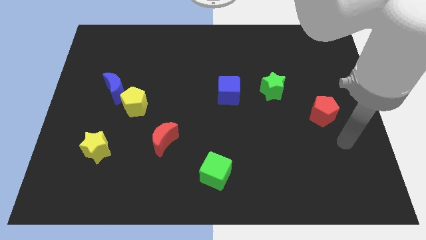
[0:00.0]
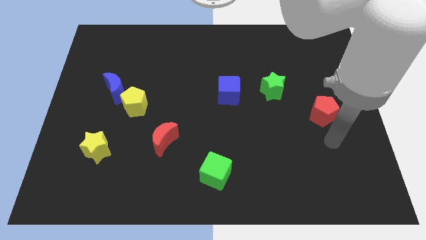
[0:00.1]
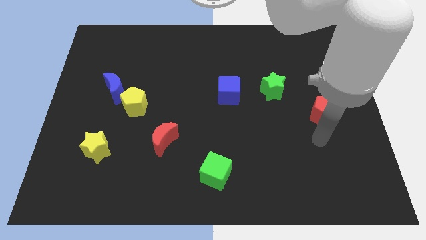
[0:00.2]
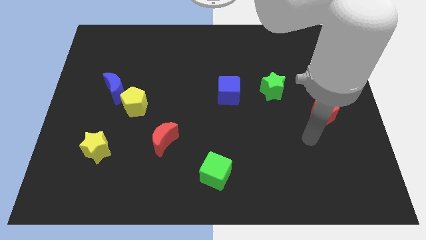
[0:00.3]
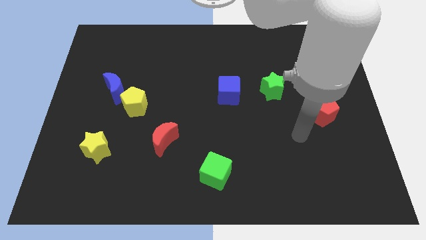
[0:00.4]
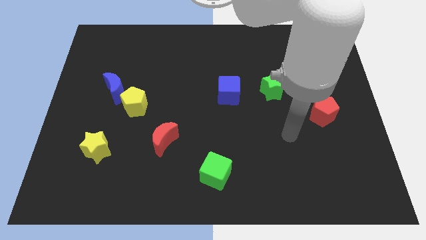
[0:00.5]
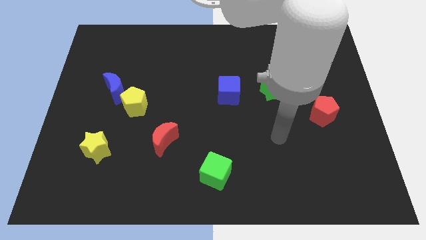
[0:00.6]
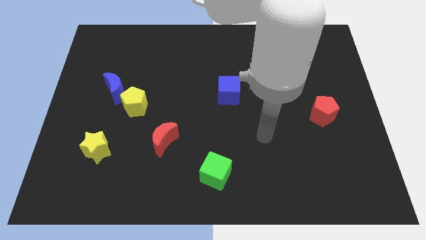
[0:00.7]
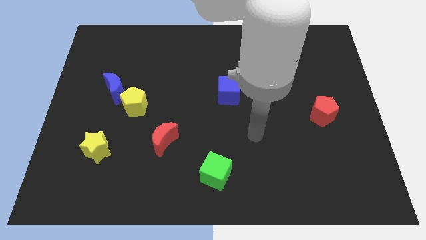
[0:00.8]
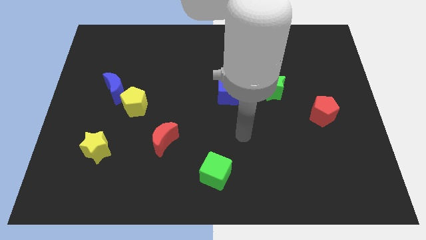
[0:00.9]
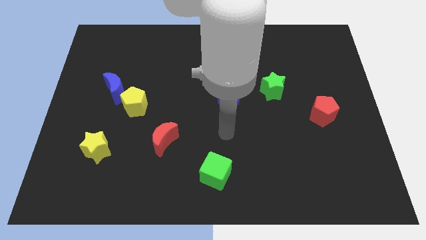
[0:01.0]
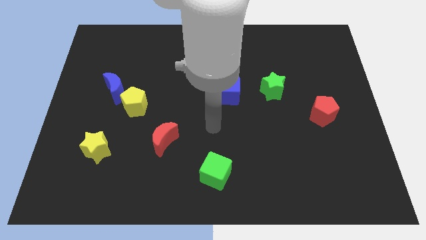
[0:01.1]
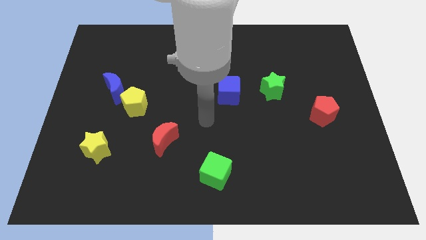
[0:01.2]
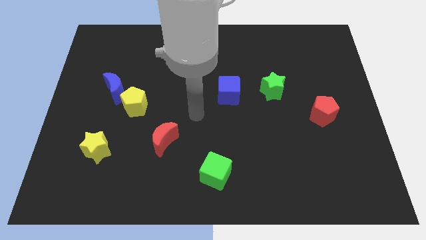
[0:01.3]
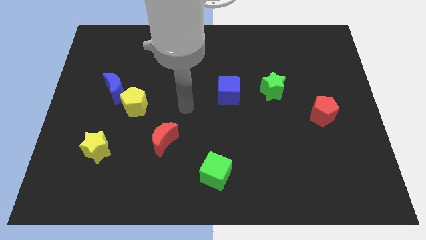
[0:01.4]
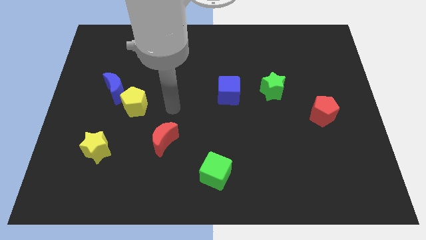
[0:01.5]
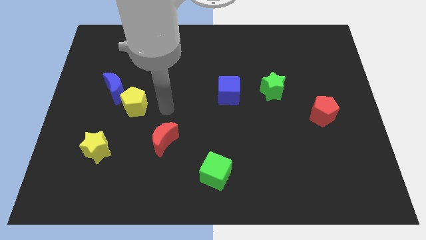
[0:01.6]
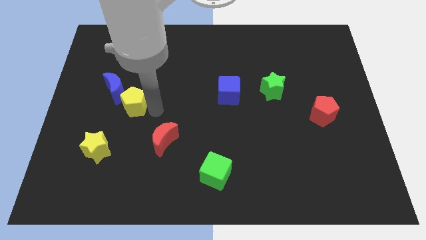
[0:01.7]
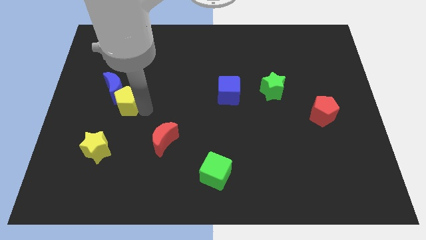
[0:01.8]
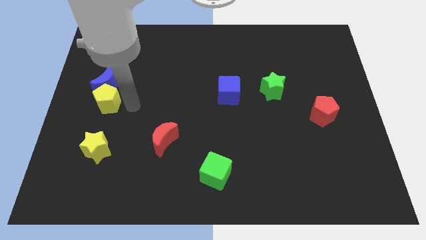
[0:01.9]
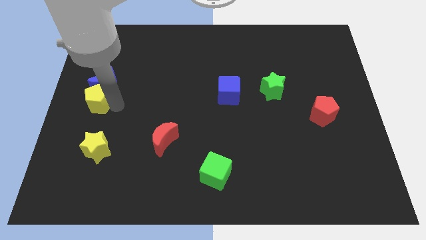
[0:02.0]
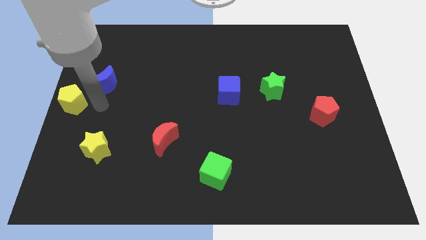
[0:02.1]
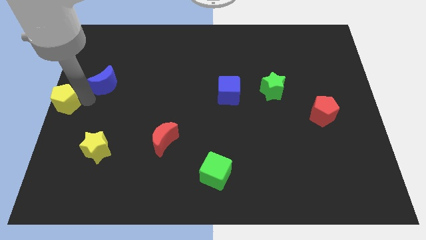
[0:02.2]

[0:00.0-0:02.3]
pull the blue moon apart from the yellow pentagon

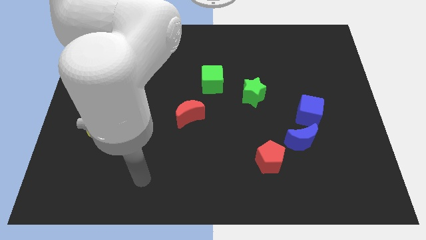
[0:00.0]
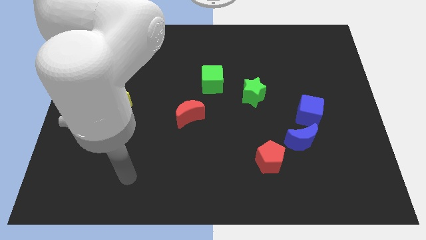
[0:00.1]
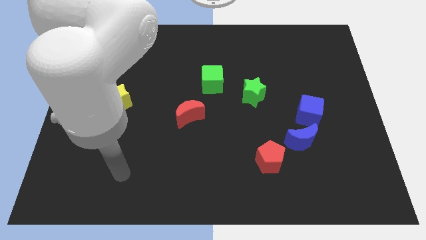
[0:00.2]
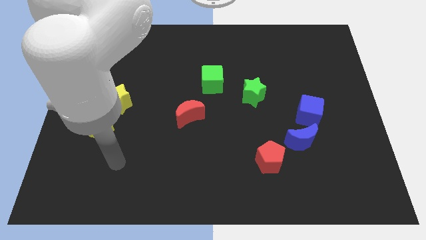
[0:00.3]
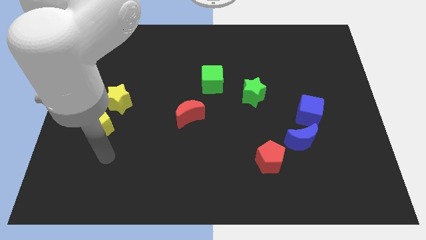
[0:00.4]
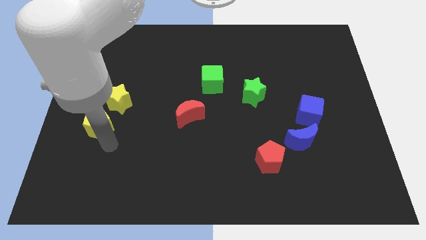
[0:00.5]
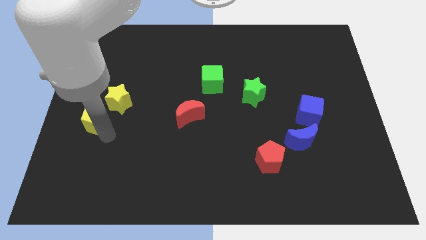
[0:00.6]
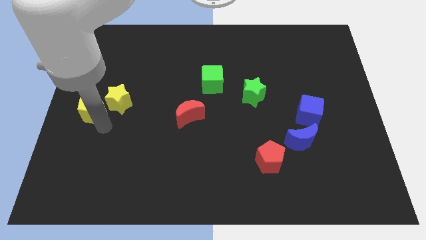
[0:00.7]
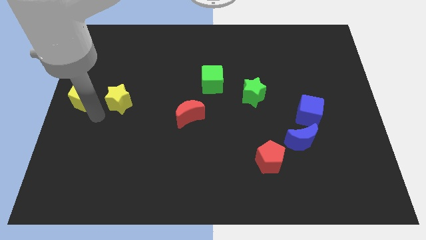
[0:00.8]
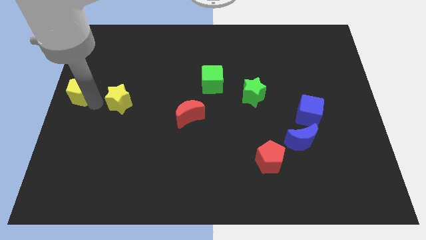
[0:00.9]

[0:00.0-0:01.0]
move the yellow star away from the yellow pentagon

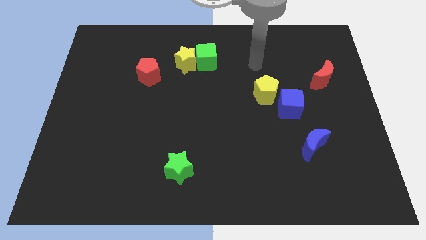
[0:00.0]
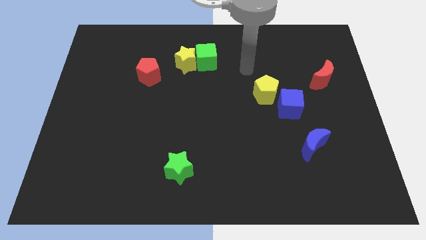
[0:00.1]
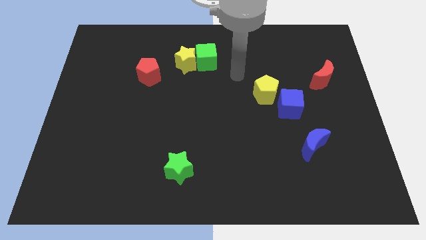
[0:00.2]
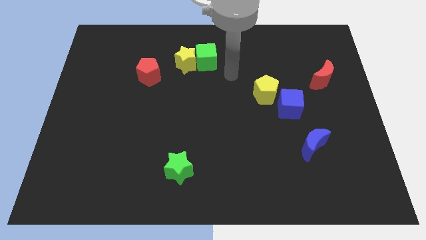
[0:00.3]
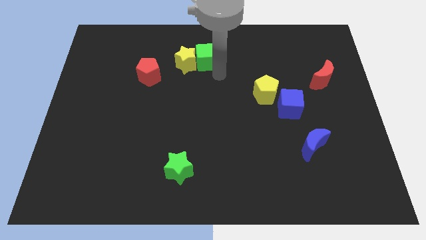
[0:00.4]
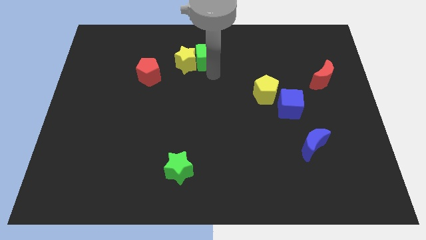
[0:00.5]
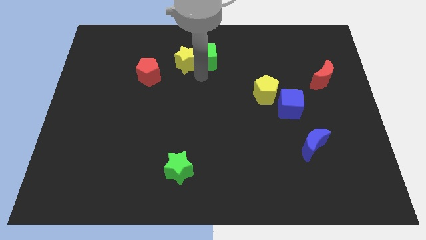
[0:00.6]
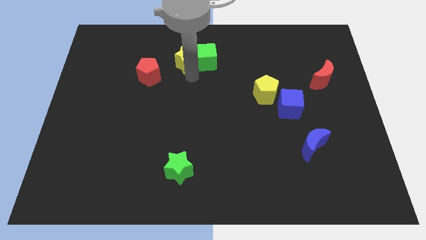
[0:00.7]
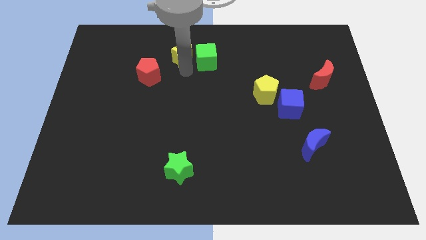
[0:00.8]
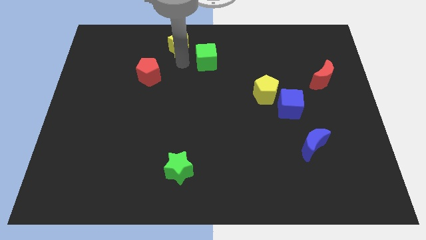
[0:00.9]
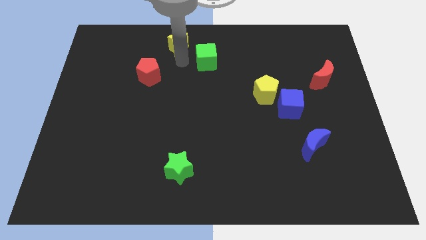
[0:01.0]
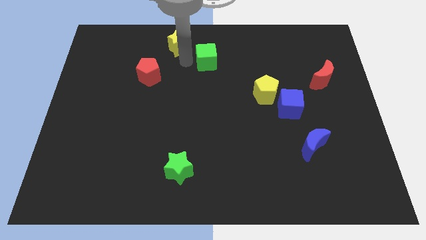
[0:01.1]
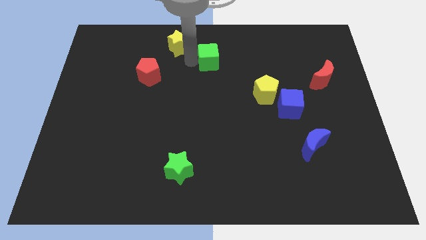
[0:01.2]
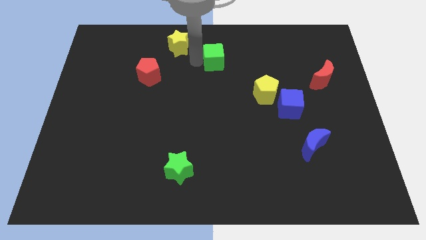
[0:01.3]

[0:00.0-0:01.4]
pull the green cube apart from the yellow star

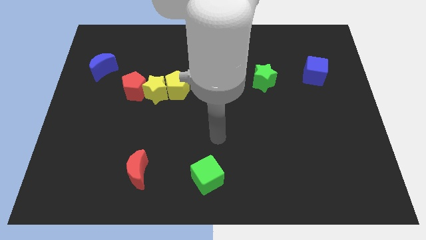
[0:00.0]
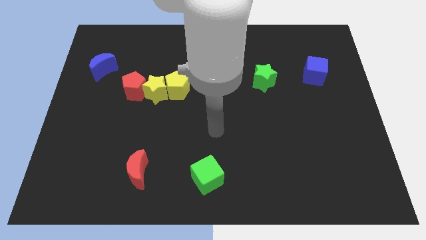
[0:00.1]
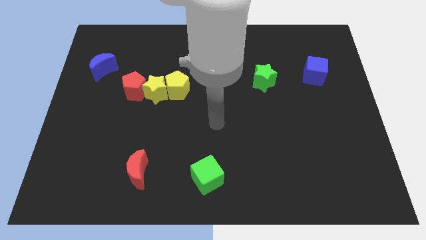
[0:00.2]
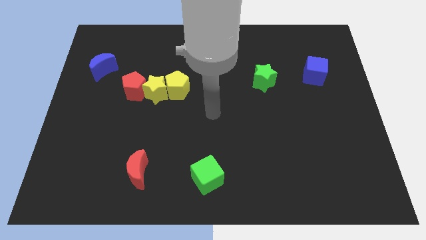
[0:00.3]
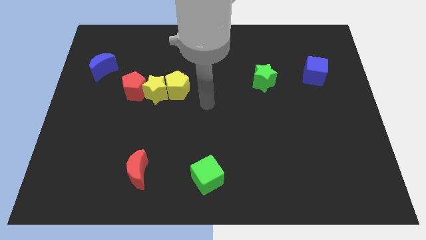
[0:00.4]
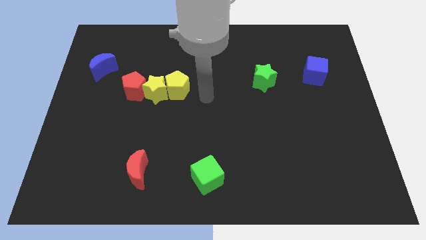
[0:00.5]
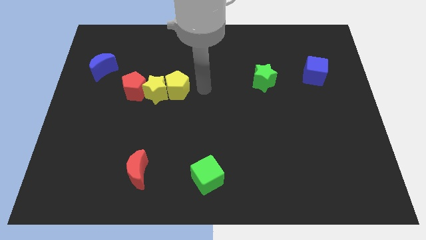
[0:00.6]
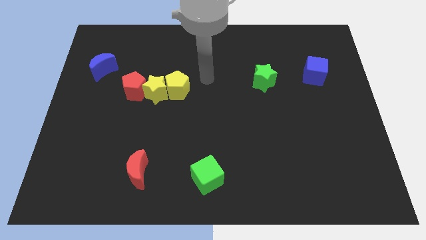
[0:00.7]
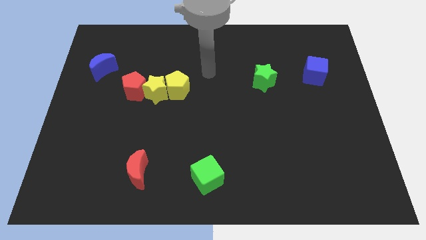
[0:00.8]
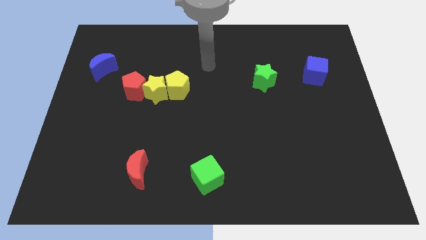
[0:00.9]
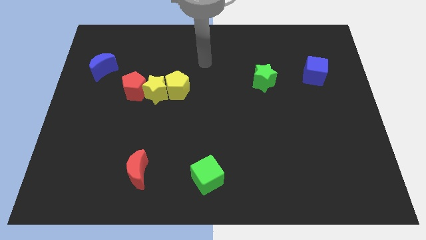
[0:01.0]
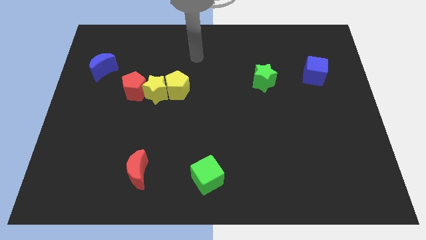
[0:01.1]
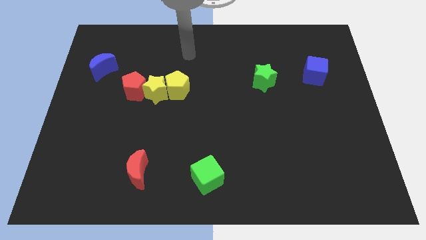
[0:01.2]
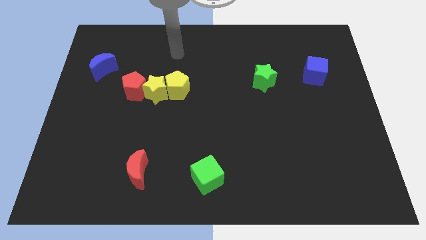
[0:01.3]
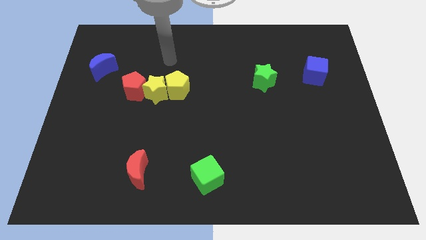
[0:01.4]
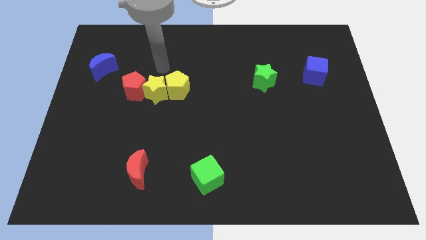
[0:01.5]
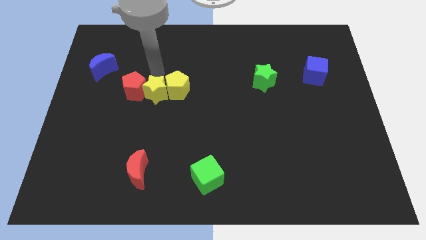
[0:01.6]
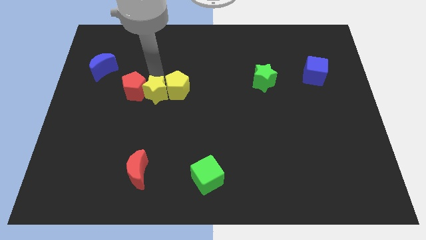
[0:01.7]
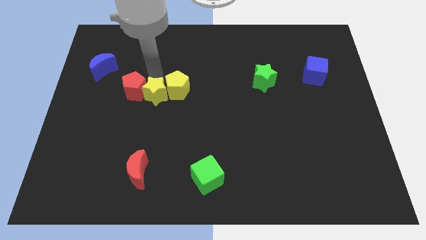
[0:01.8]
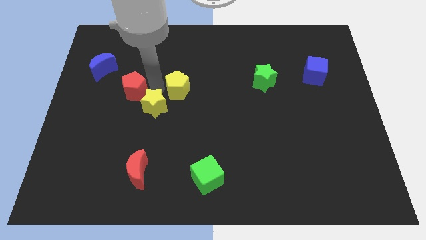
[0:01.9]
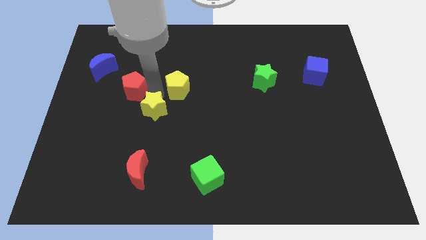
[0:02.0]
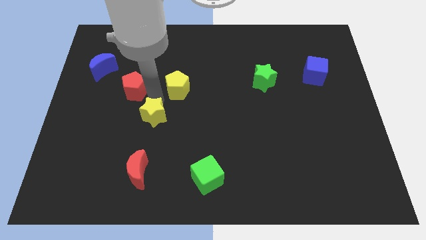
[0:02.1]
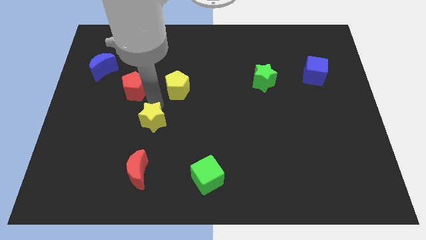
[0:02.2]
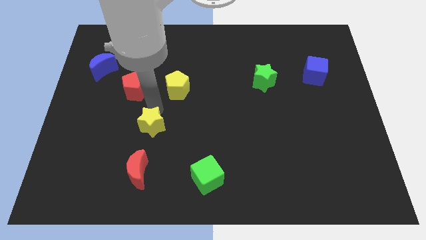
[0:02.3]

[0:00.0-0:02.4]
separate the yellow star from the yellow pentagon and red pentagon

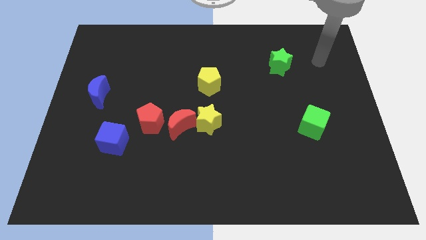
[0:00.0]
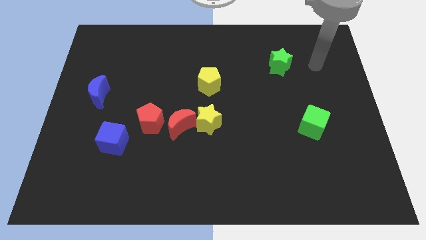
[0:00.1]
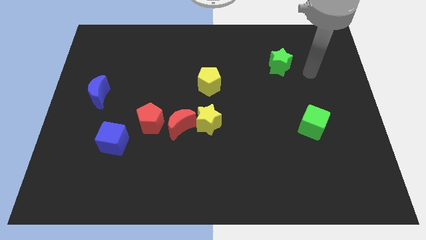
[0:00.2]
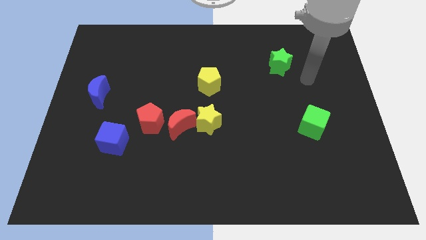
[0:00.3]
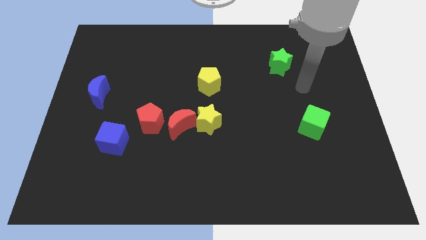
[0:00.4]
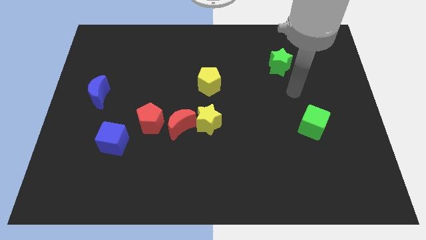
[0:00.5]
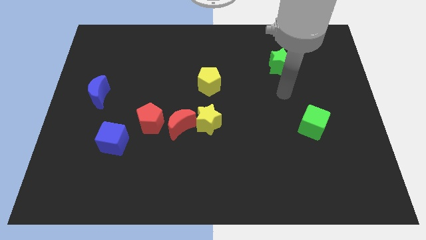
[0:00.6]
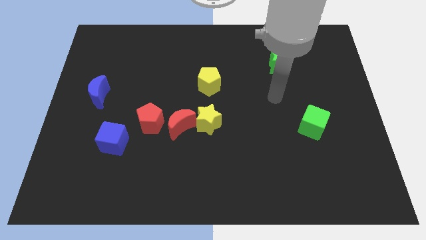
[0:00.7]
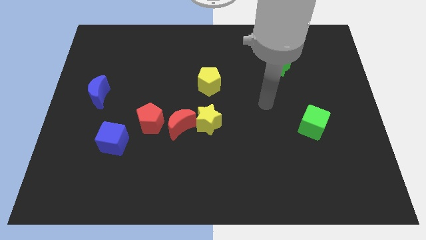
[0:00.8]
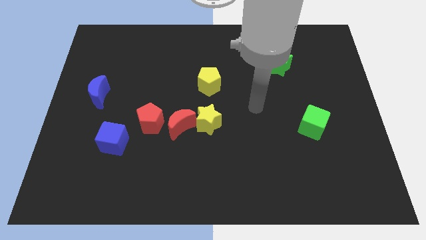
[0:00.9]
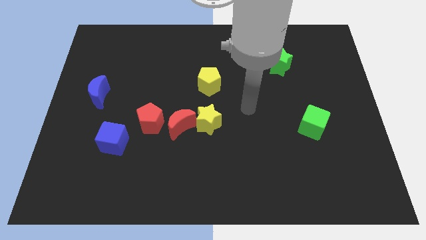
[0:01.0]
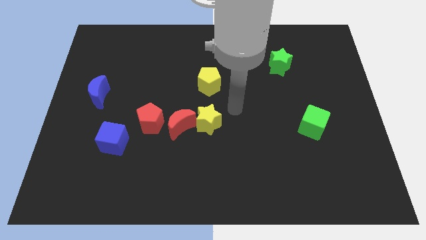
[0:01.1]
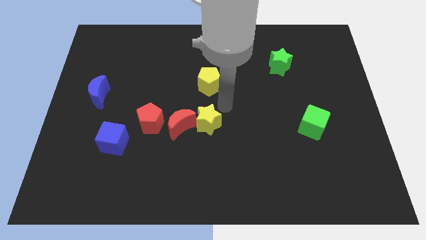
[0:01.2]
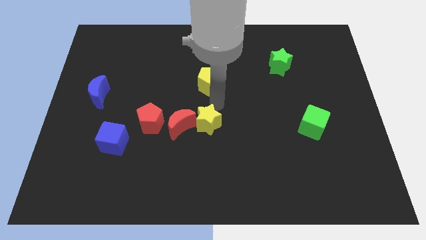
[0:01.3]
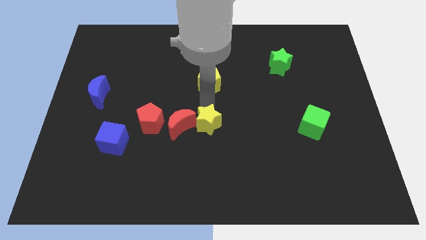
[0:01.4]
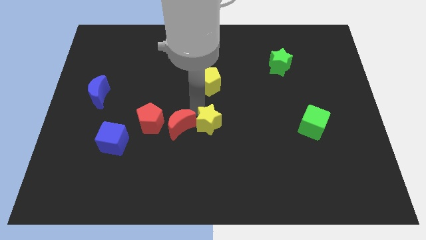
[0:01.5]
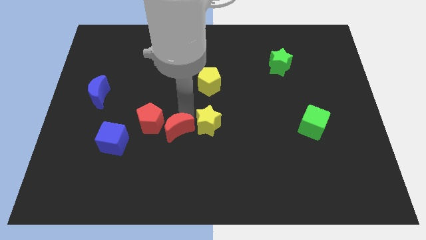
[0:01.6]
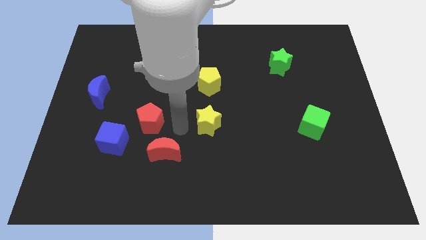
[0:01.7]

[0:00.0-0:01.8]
pull the yellow star apart from the red moon

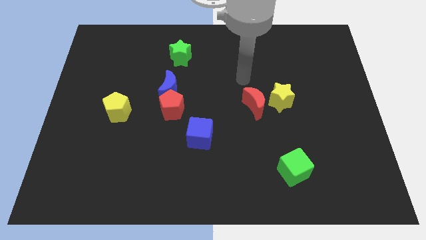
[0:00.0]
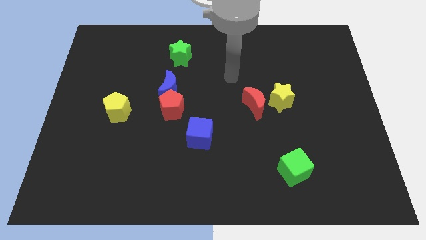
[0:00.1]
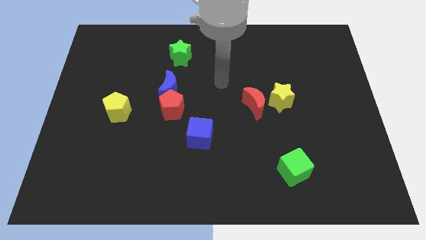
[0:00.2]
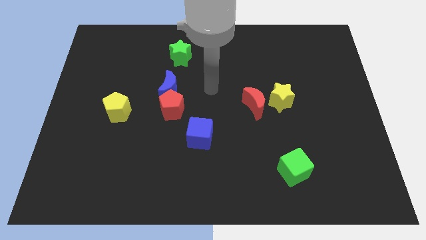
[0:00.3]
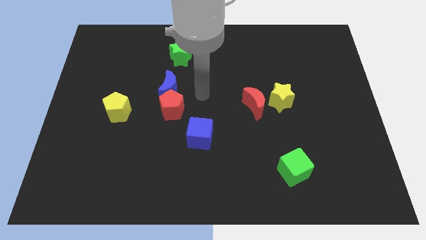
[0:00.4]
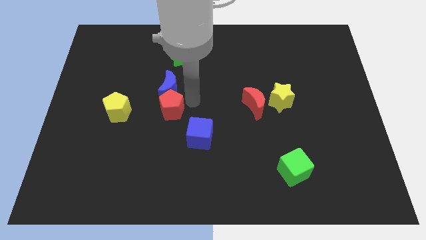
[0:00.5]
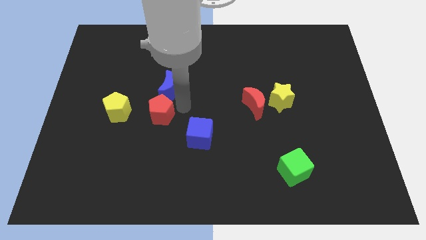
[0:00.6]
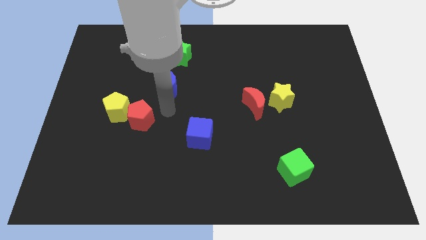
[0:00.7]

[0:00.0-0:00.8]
pull the blue moon apart from the red pentagon
